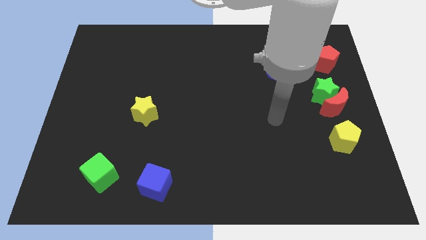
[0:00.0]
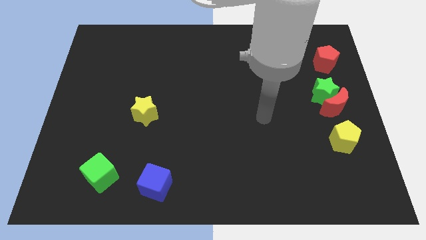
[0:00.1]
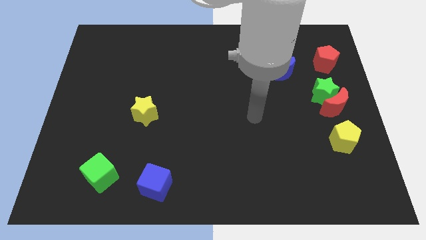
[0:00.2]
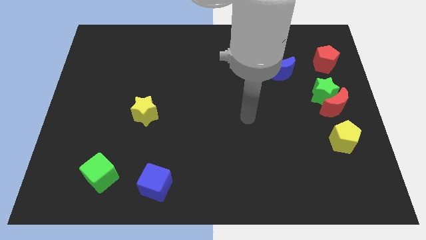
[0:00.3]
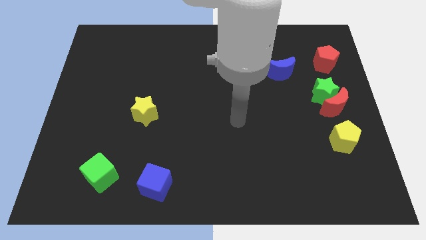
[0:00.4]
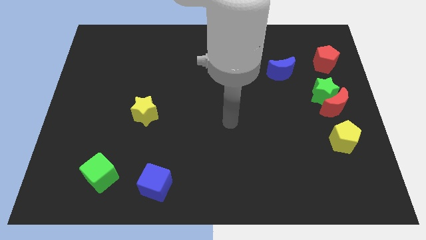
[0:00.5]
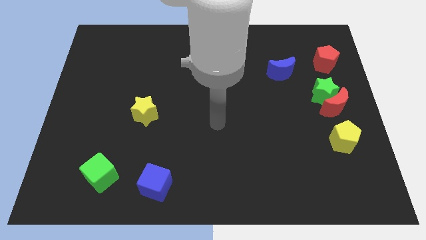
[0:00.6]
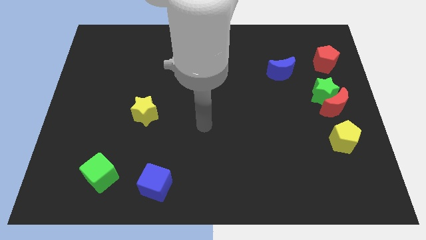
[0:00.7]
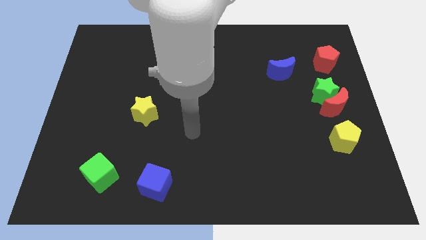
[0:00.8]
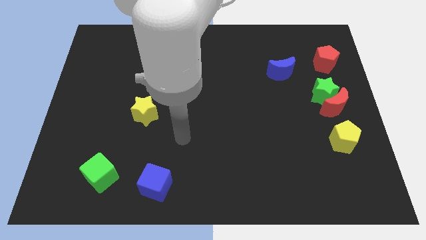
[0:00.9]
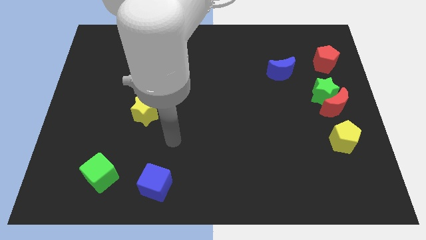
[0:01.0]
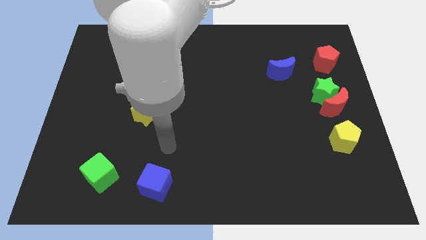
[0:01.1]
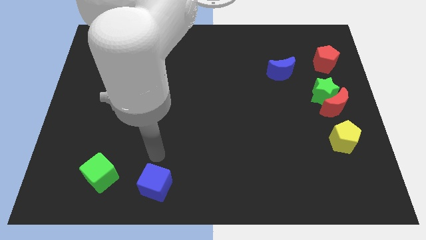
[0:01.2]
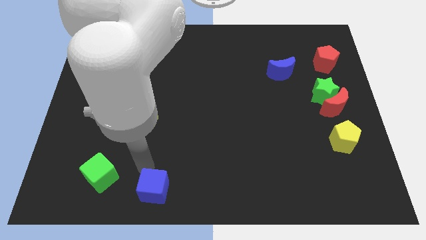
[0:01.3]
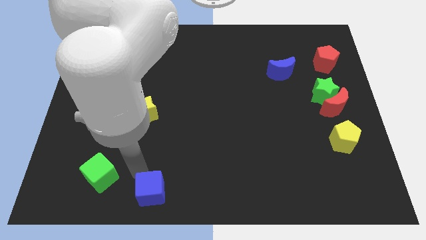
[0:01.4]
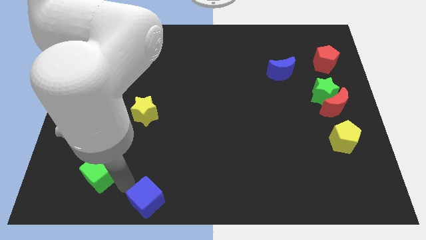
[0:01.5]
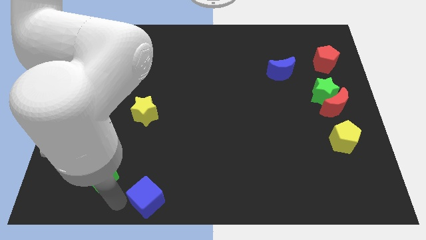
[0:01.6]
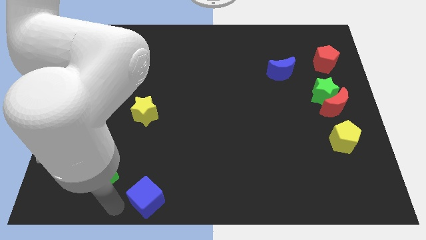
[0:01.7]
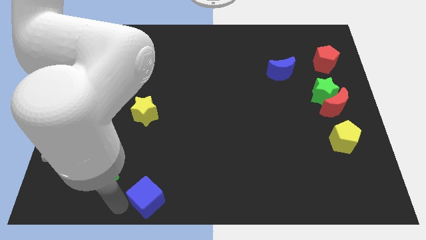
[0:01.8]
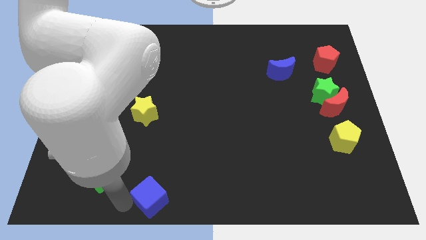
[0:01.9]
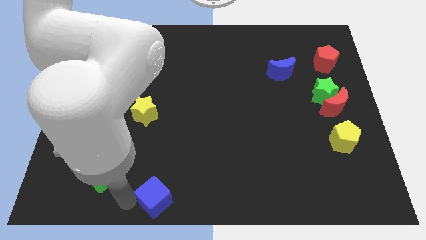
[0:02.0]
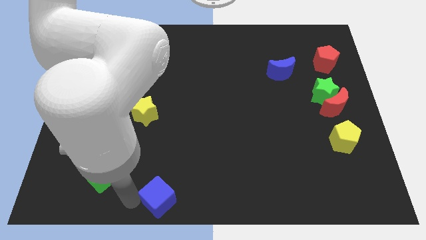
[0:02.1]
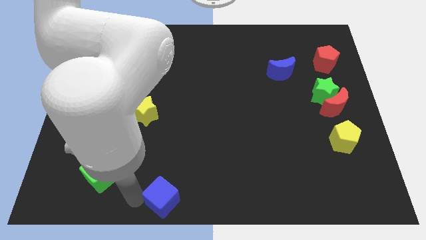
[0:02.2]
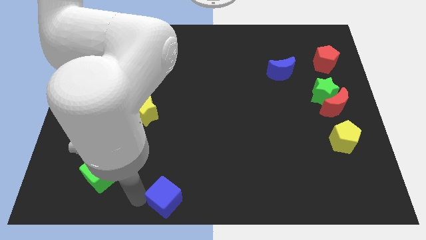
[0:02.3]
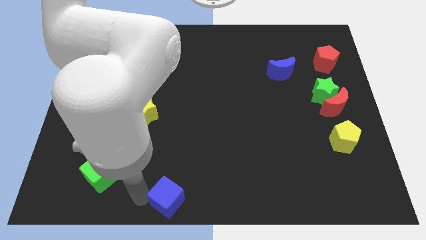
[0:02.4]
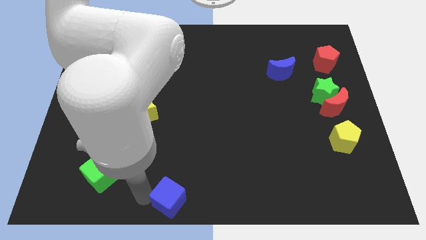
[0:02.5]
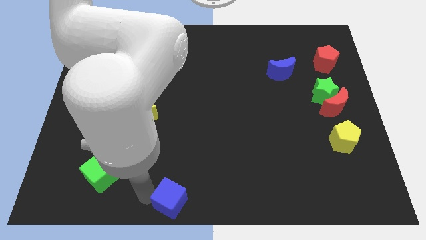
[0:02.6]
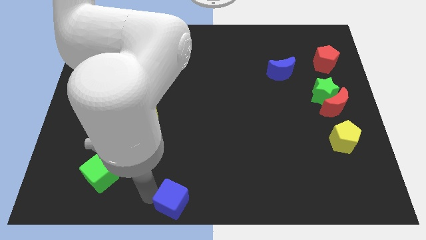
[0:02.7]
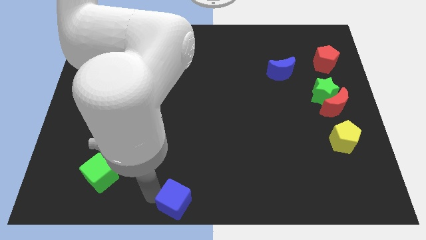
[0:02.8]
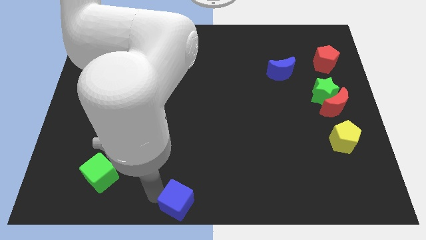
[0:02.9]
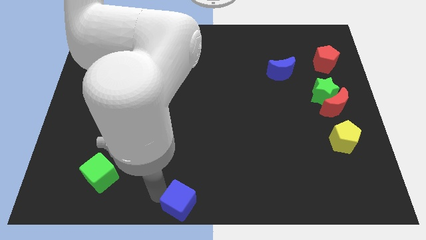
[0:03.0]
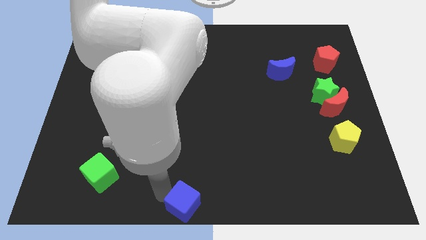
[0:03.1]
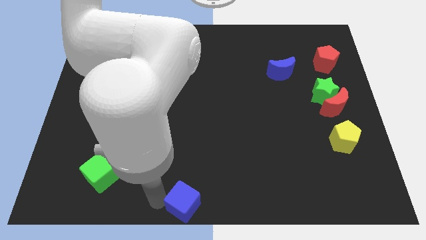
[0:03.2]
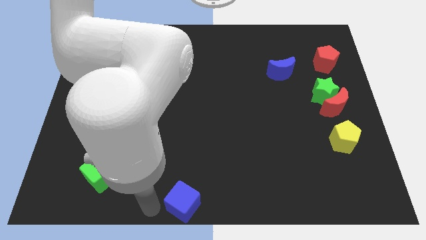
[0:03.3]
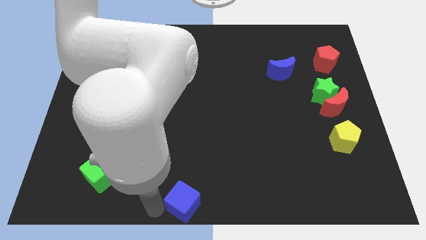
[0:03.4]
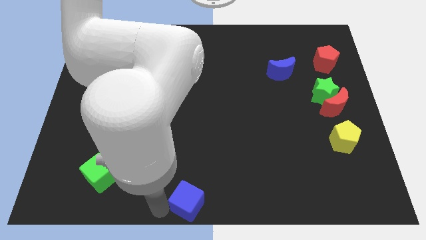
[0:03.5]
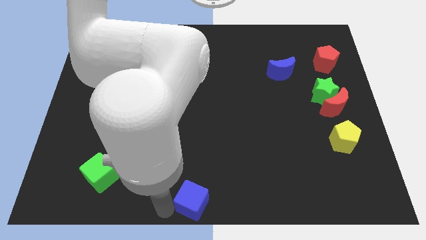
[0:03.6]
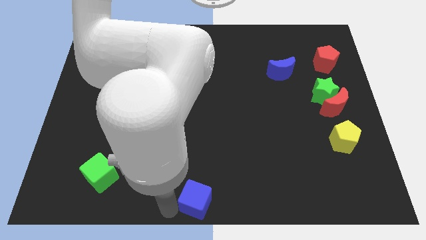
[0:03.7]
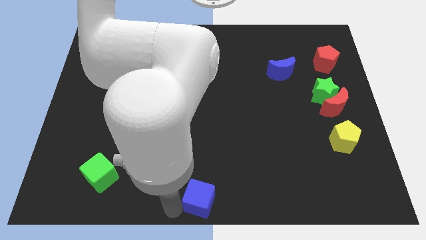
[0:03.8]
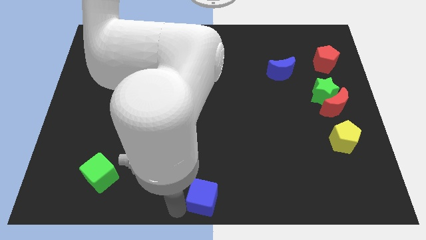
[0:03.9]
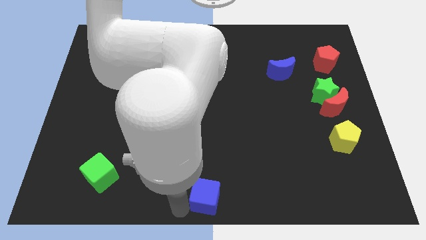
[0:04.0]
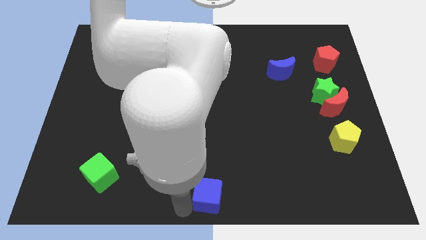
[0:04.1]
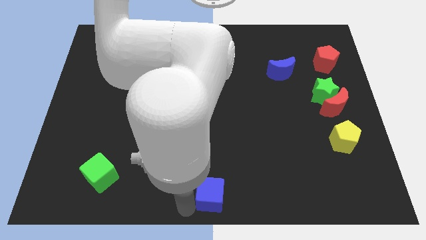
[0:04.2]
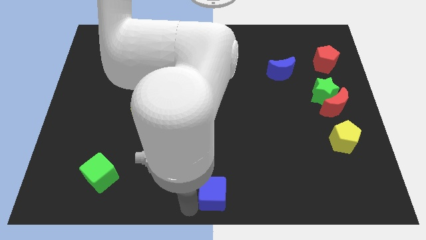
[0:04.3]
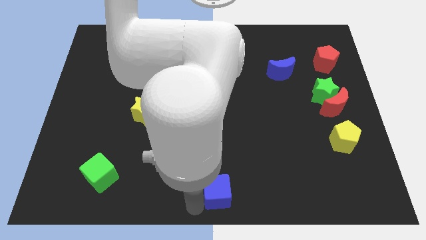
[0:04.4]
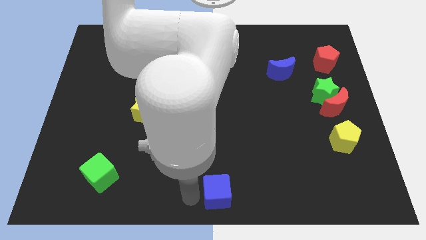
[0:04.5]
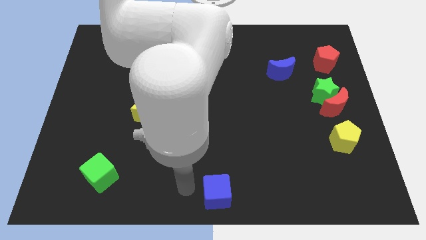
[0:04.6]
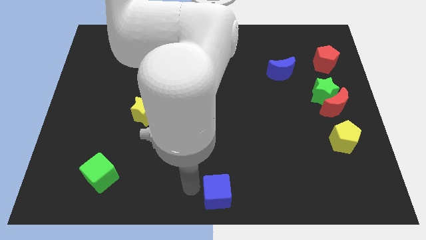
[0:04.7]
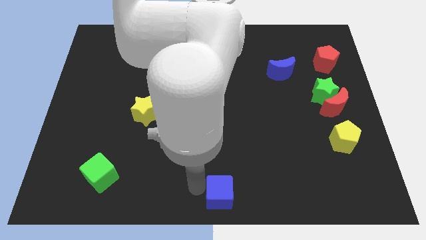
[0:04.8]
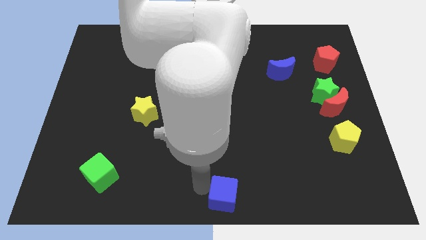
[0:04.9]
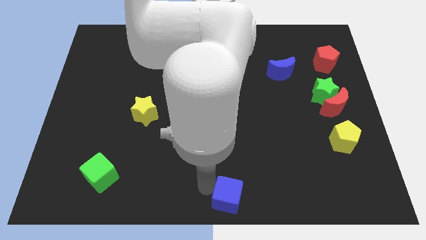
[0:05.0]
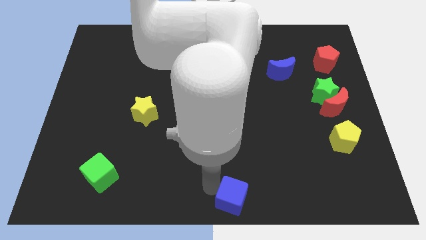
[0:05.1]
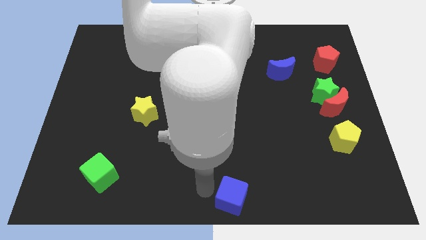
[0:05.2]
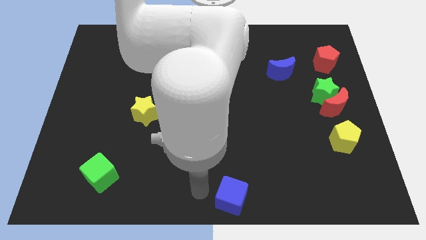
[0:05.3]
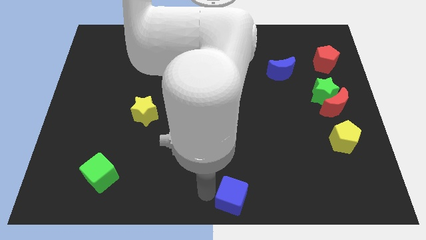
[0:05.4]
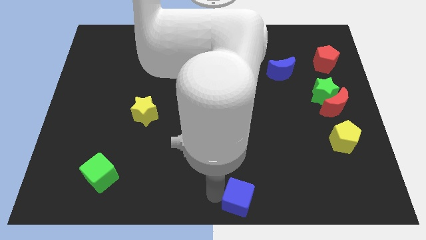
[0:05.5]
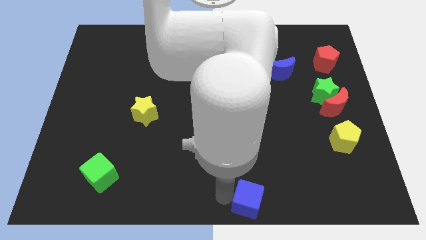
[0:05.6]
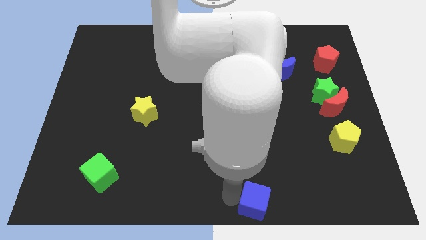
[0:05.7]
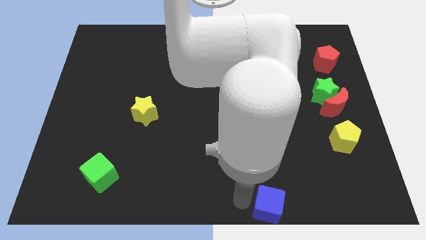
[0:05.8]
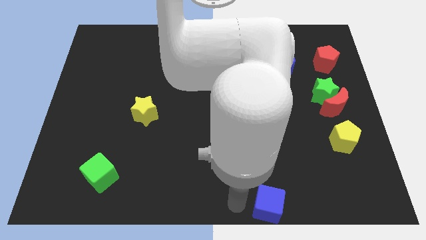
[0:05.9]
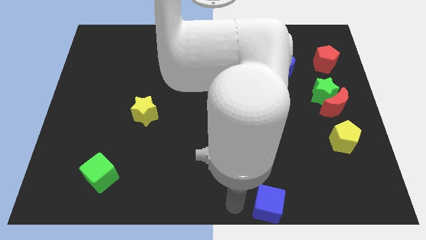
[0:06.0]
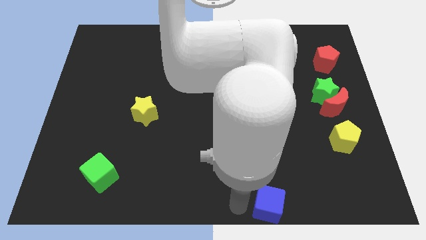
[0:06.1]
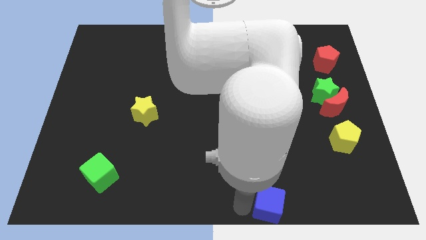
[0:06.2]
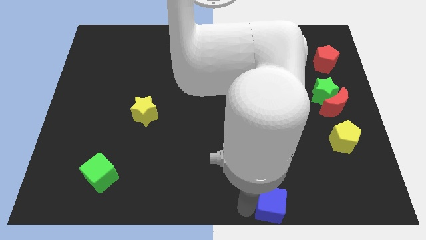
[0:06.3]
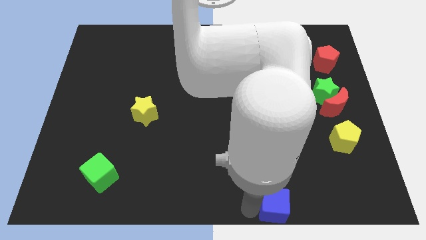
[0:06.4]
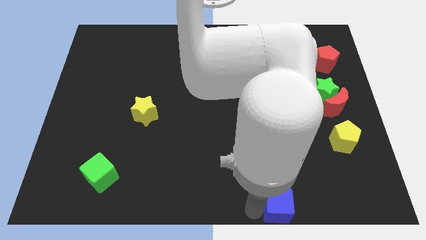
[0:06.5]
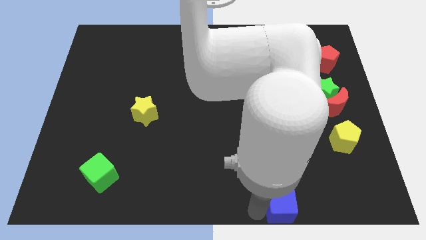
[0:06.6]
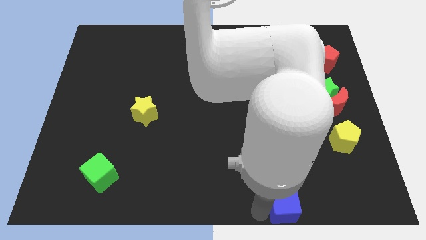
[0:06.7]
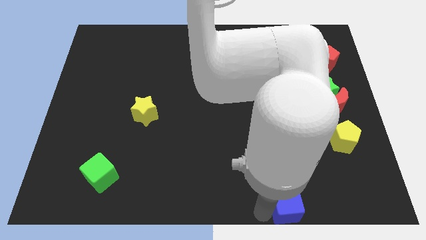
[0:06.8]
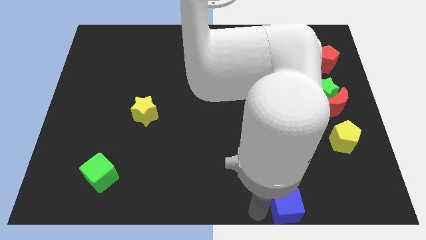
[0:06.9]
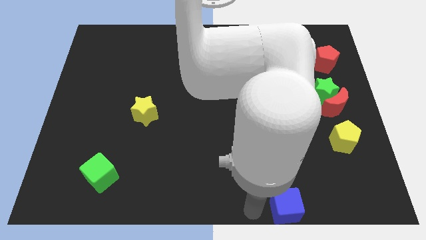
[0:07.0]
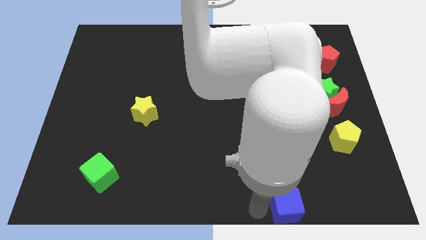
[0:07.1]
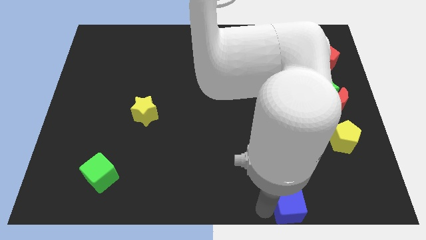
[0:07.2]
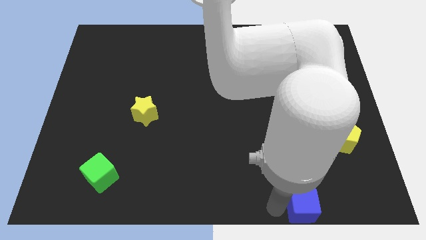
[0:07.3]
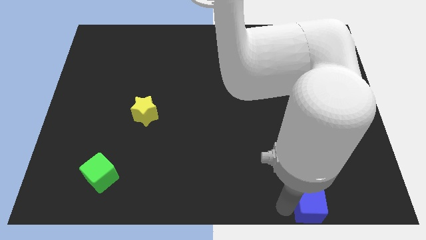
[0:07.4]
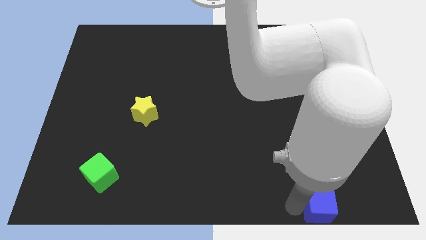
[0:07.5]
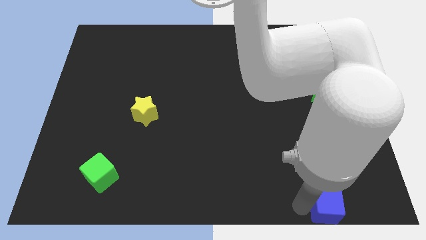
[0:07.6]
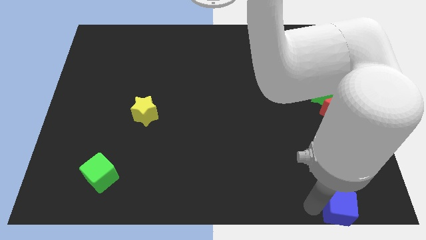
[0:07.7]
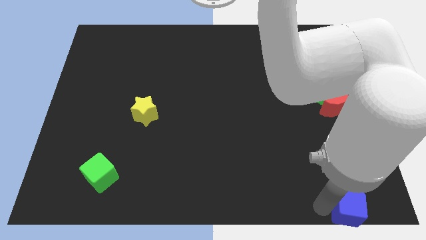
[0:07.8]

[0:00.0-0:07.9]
push the blue cube to the bottom right corner
